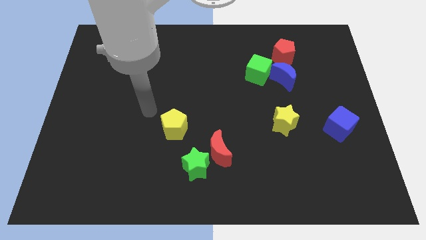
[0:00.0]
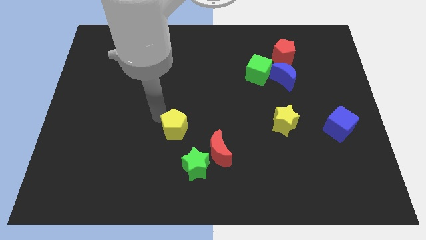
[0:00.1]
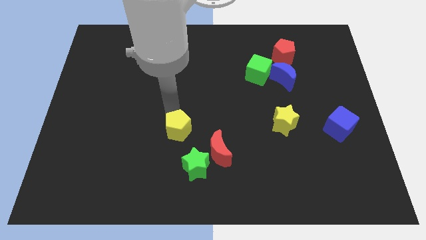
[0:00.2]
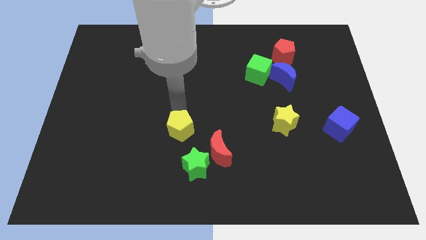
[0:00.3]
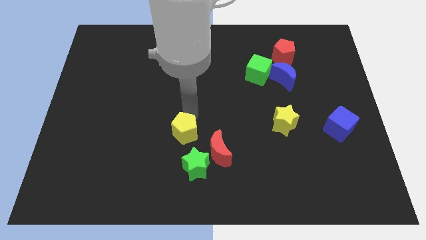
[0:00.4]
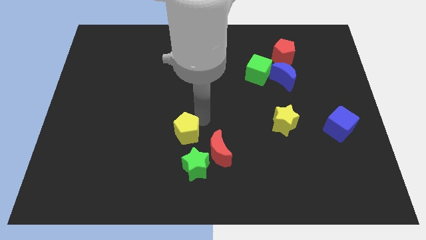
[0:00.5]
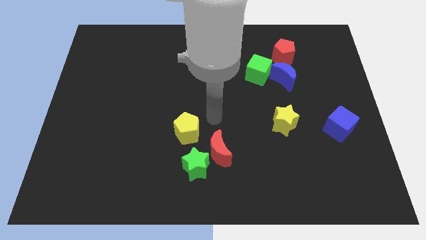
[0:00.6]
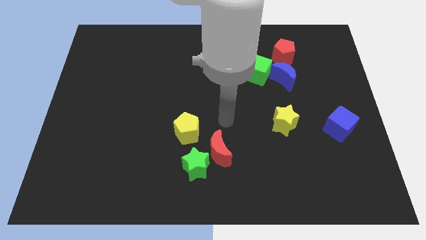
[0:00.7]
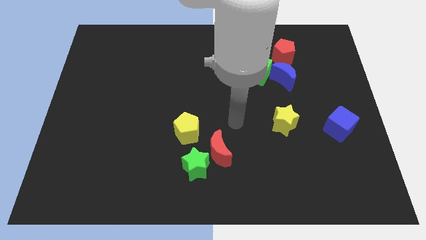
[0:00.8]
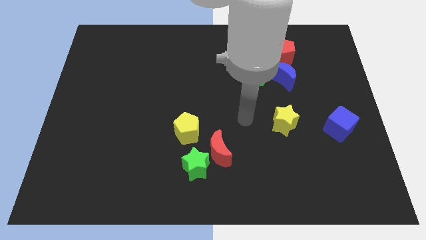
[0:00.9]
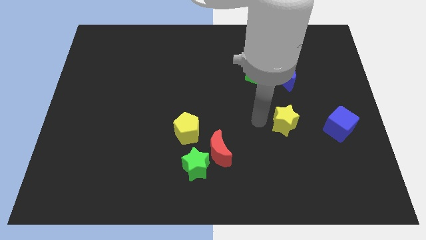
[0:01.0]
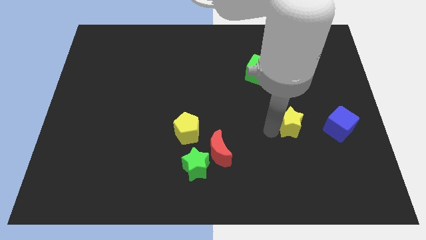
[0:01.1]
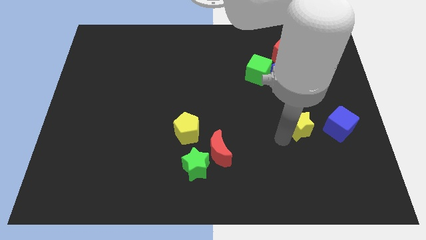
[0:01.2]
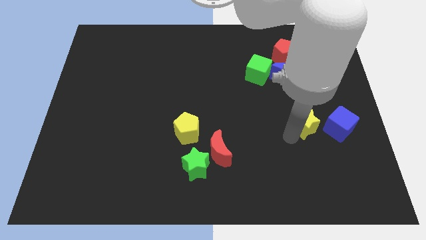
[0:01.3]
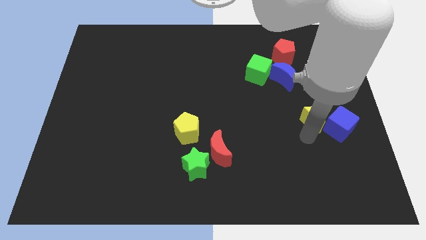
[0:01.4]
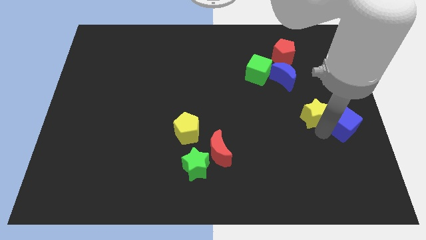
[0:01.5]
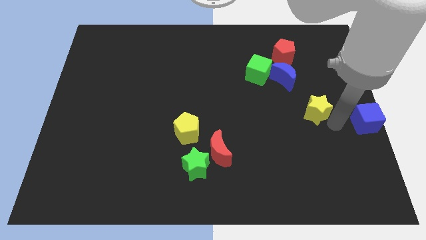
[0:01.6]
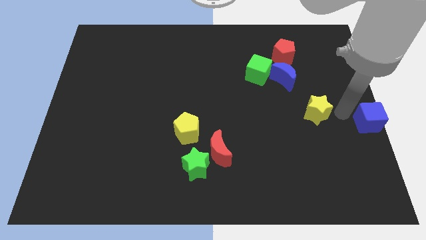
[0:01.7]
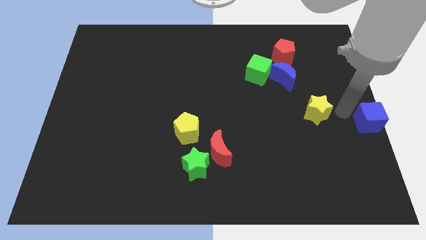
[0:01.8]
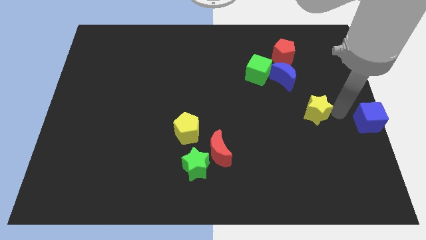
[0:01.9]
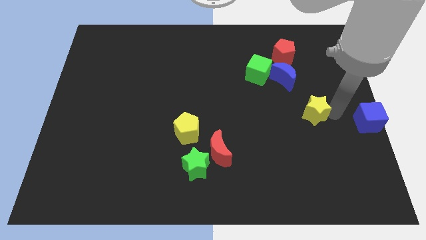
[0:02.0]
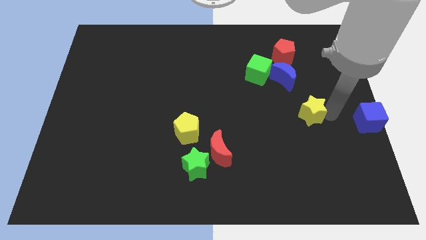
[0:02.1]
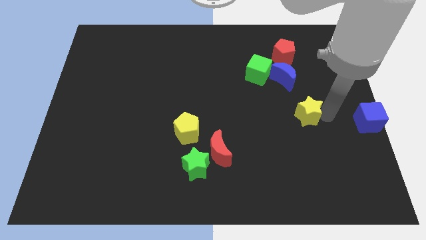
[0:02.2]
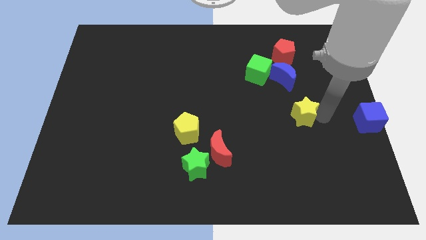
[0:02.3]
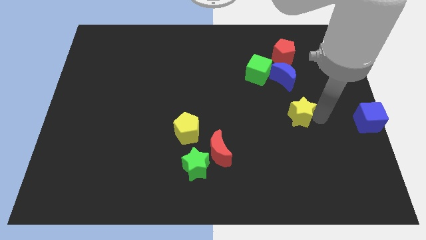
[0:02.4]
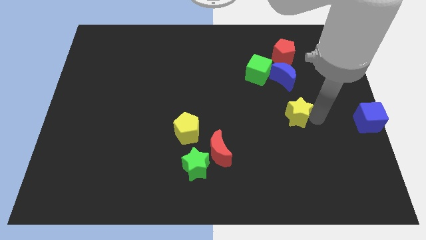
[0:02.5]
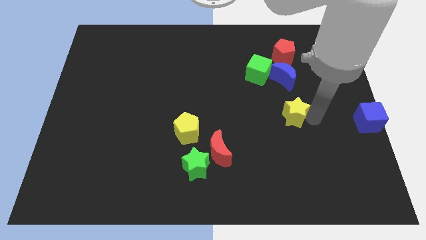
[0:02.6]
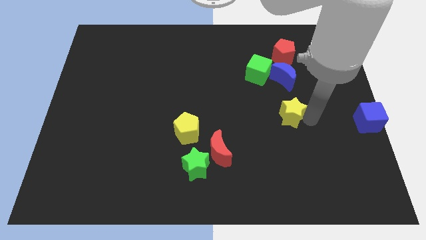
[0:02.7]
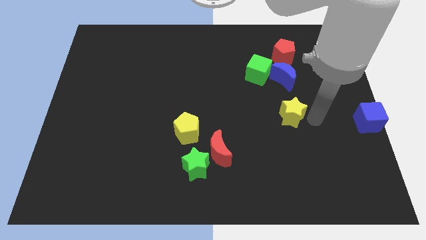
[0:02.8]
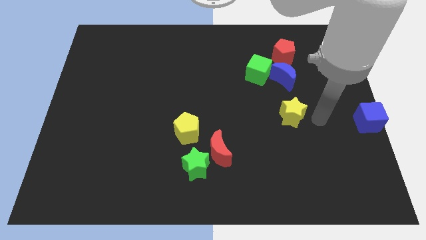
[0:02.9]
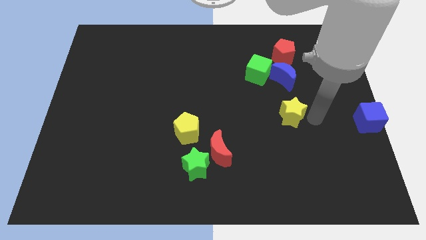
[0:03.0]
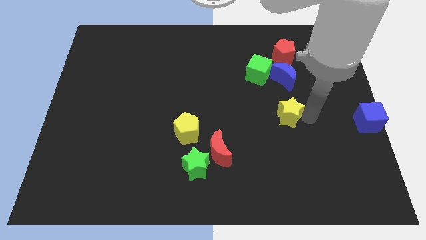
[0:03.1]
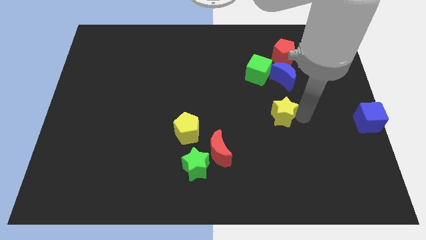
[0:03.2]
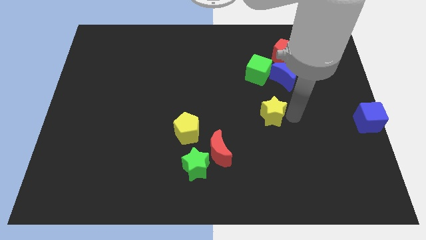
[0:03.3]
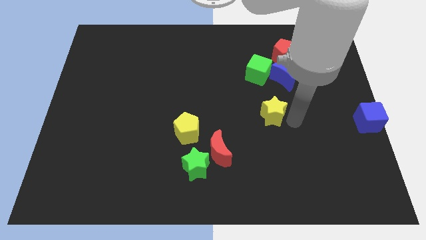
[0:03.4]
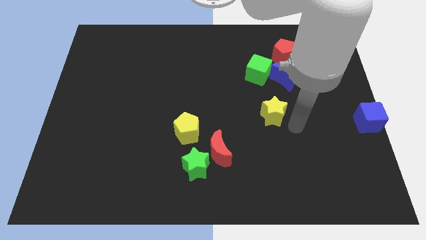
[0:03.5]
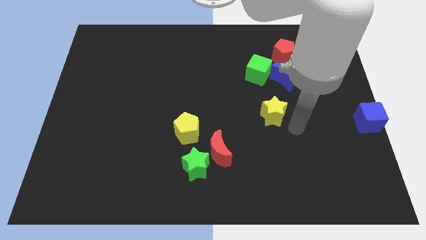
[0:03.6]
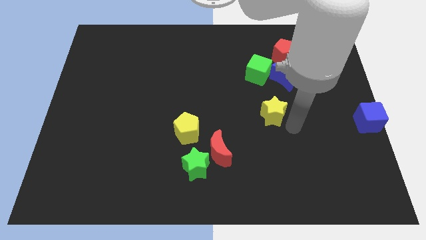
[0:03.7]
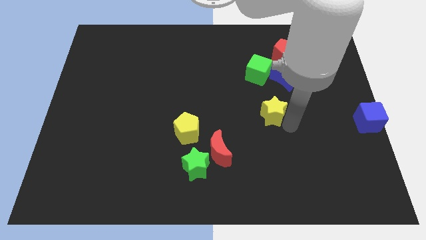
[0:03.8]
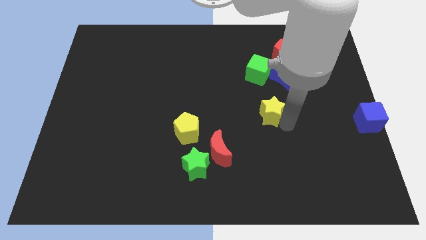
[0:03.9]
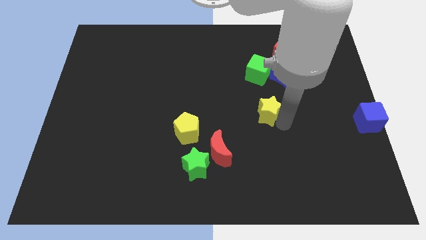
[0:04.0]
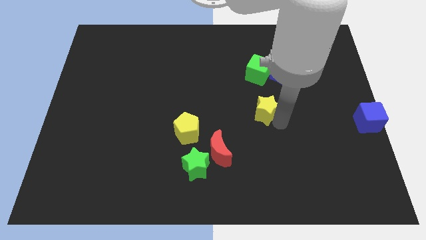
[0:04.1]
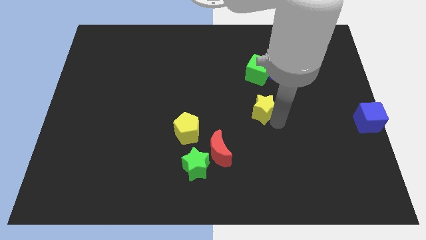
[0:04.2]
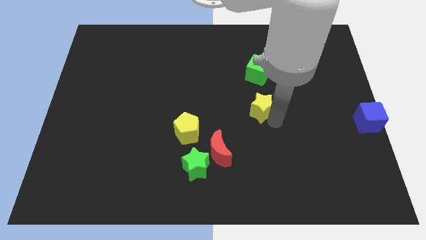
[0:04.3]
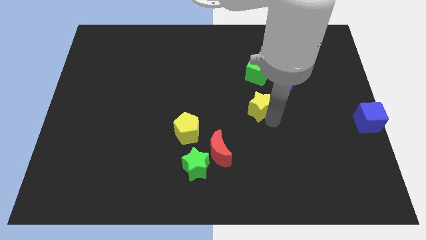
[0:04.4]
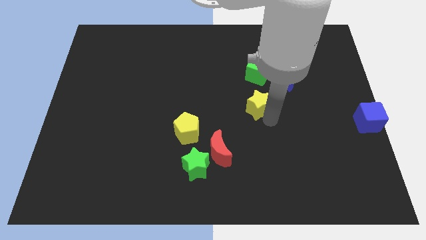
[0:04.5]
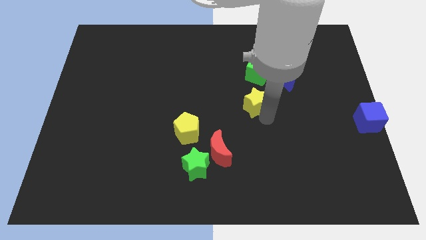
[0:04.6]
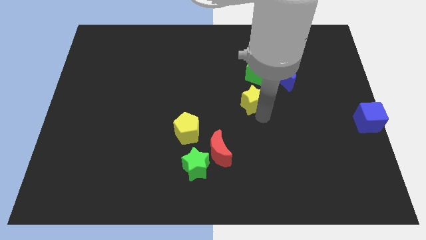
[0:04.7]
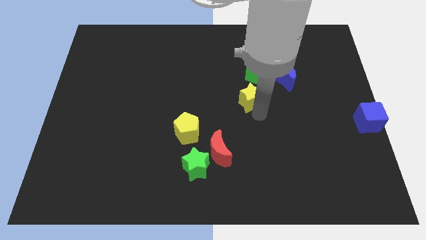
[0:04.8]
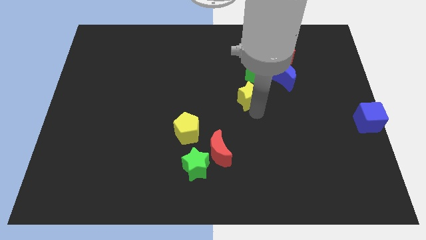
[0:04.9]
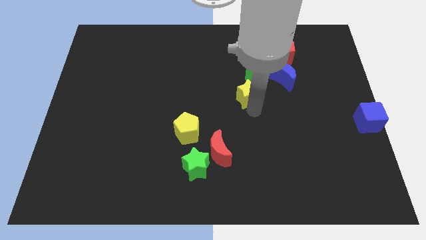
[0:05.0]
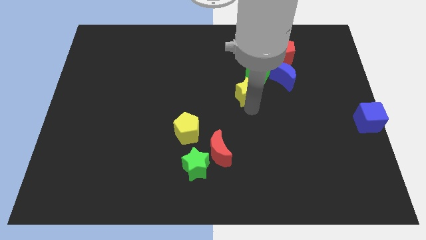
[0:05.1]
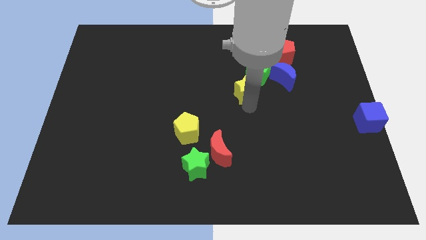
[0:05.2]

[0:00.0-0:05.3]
move the yellow star left of the blue moon

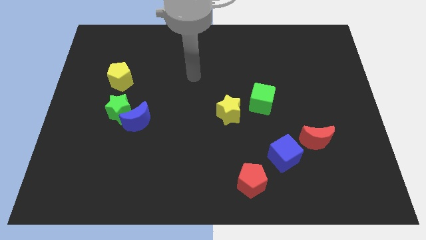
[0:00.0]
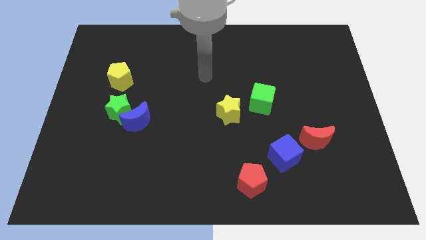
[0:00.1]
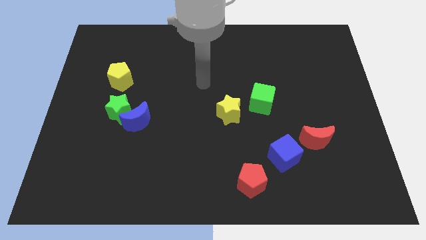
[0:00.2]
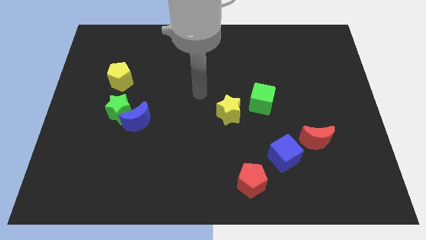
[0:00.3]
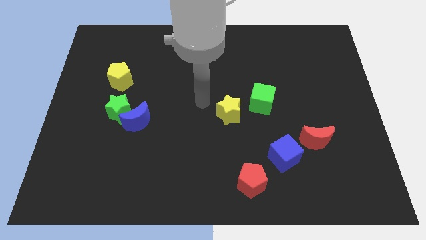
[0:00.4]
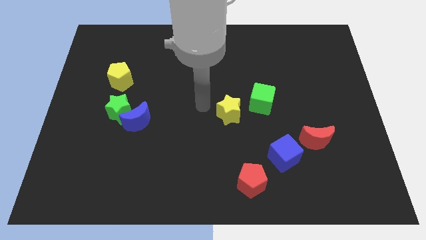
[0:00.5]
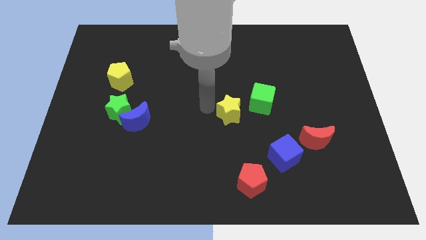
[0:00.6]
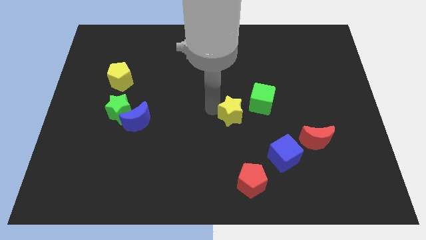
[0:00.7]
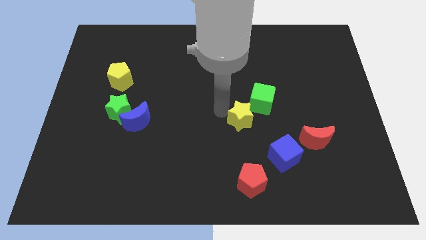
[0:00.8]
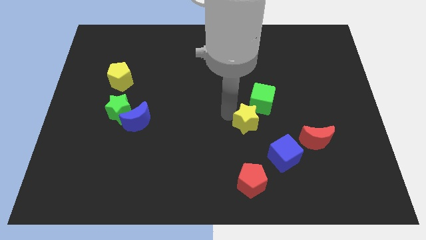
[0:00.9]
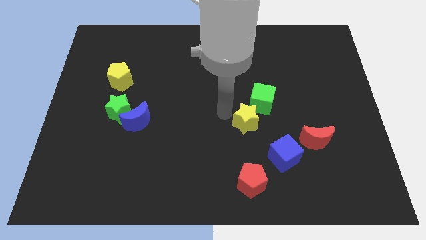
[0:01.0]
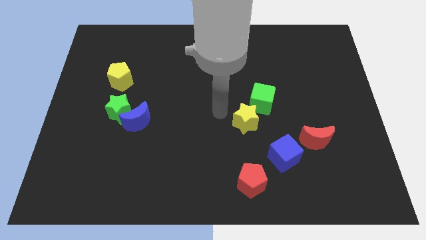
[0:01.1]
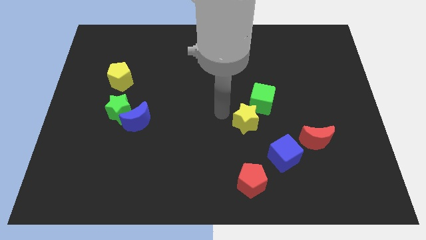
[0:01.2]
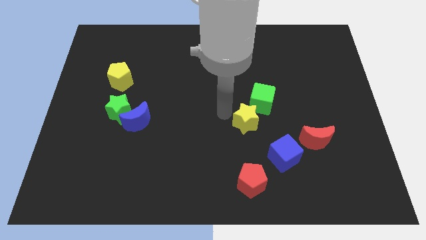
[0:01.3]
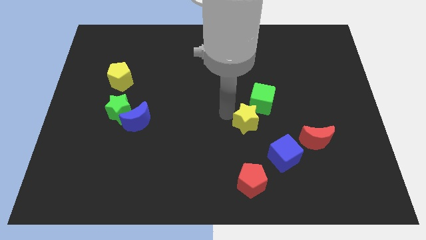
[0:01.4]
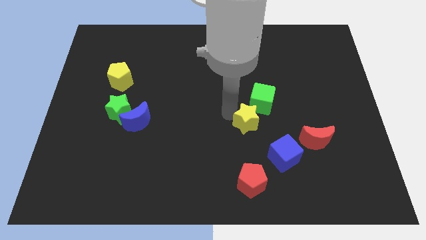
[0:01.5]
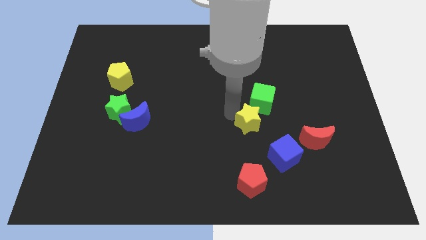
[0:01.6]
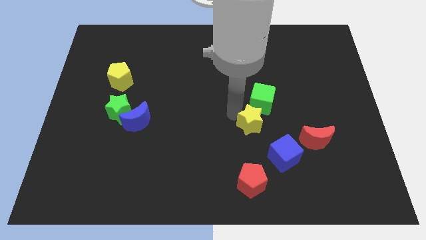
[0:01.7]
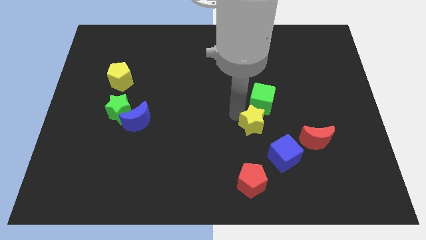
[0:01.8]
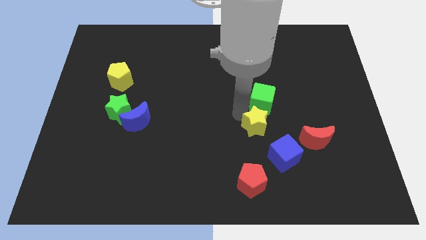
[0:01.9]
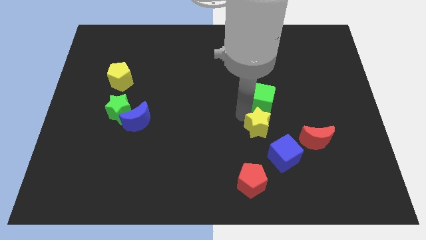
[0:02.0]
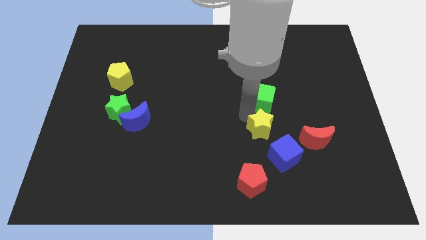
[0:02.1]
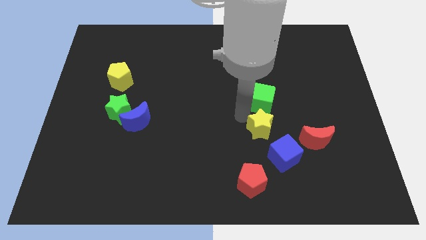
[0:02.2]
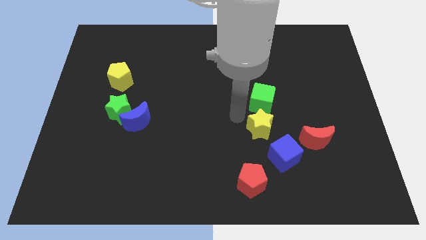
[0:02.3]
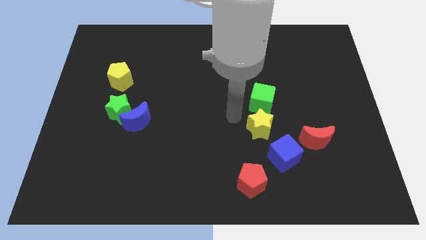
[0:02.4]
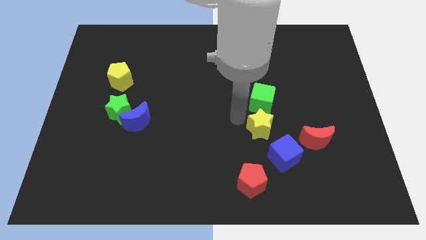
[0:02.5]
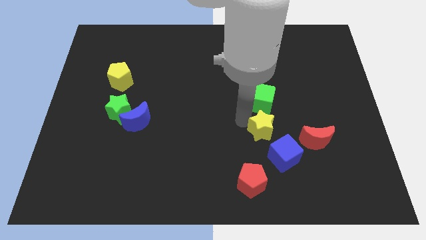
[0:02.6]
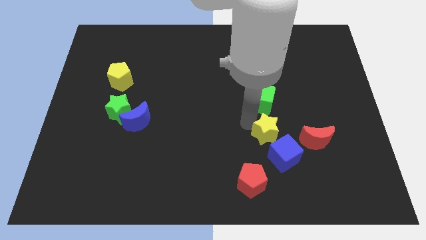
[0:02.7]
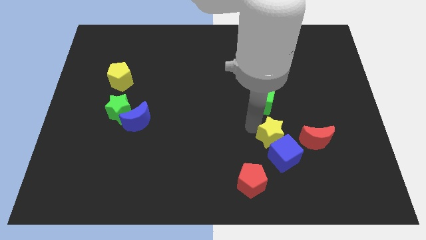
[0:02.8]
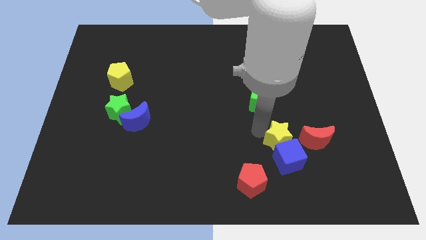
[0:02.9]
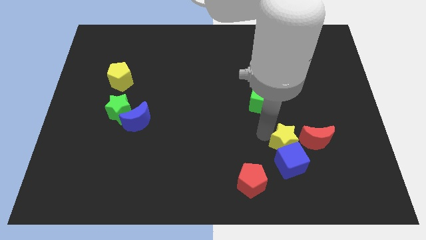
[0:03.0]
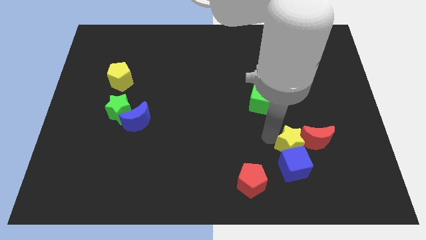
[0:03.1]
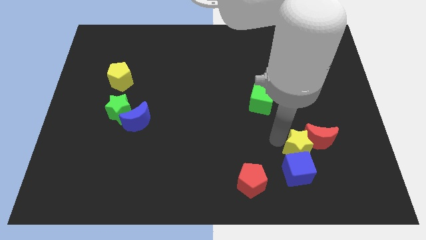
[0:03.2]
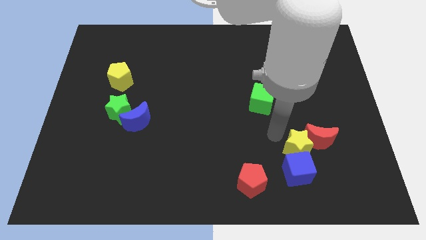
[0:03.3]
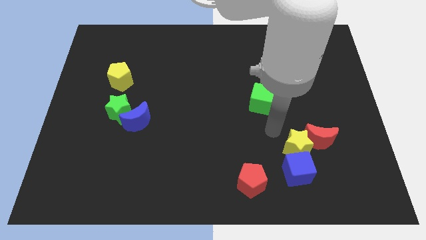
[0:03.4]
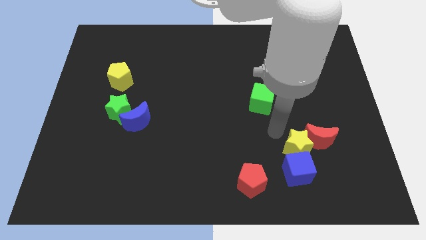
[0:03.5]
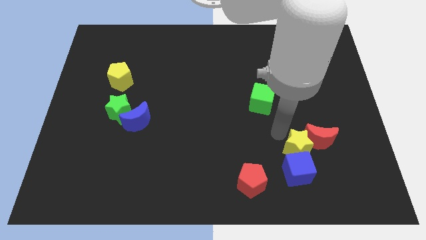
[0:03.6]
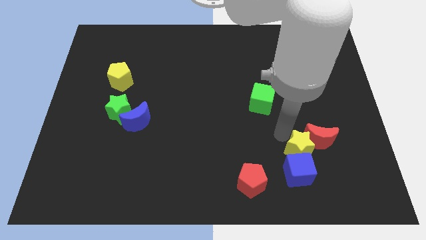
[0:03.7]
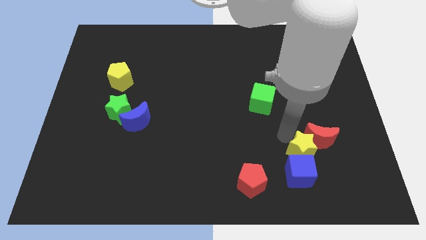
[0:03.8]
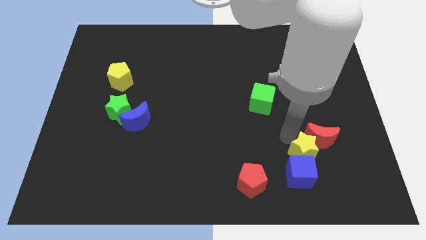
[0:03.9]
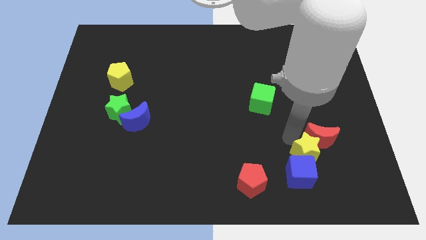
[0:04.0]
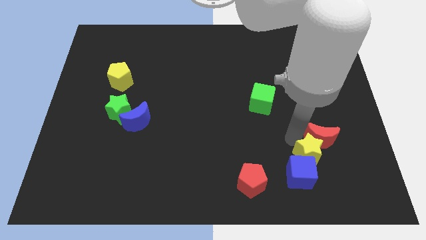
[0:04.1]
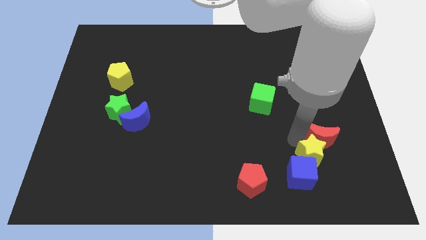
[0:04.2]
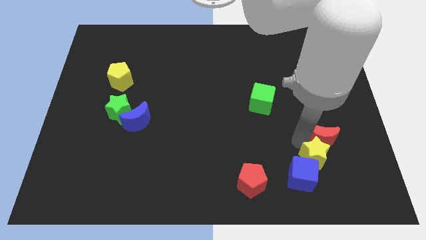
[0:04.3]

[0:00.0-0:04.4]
slide the yellow star right of the blue cube
